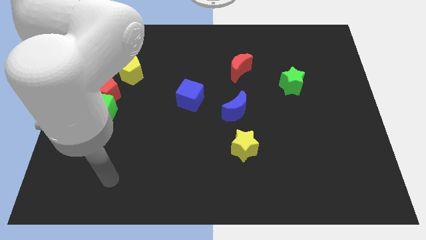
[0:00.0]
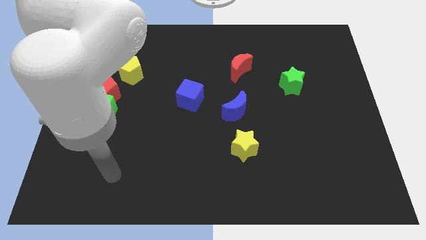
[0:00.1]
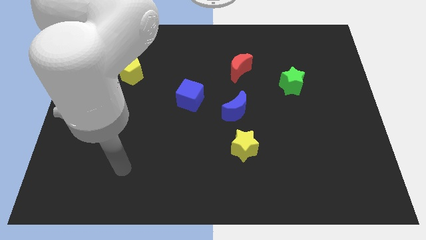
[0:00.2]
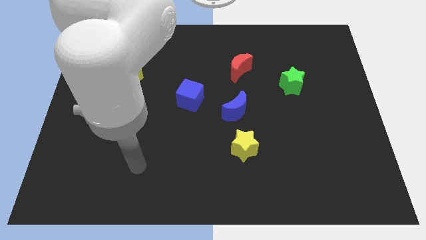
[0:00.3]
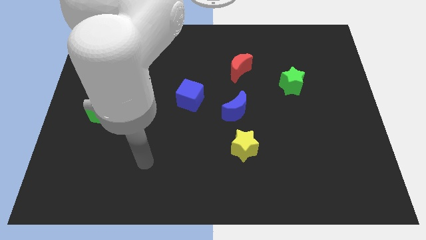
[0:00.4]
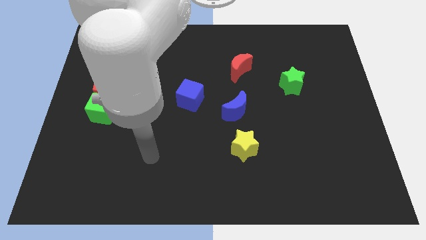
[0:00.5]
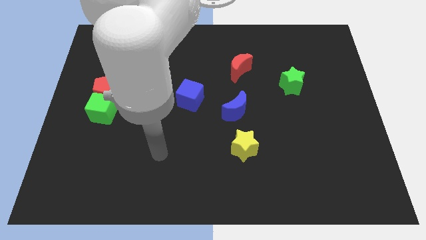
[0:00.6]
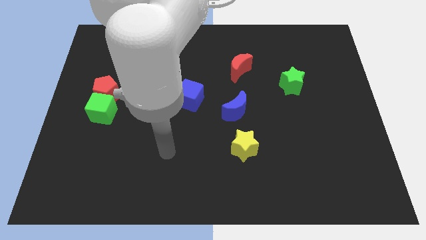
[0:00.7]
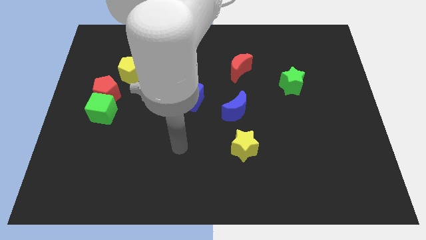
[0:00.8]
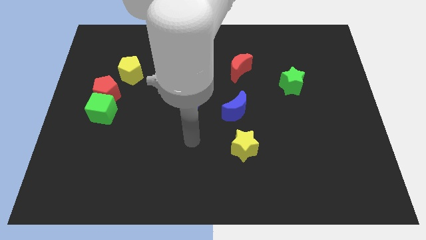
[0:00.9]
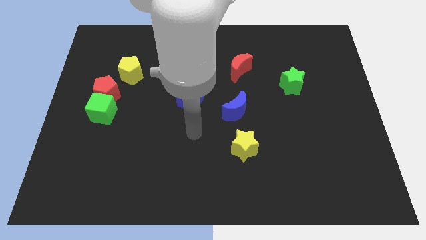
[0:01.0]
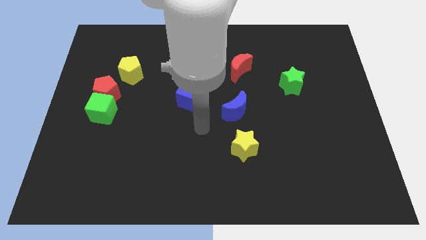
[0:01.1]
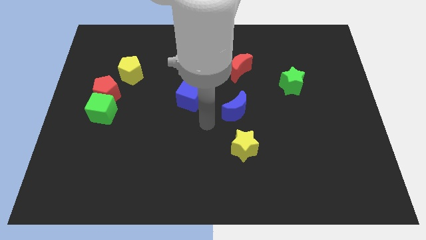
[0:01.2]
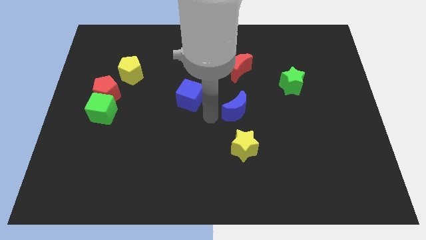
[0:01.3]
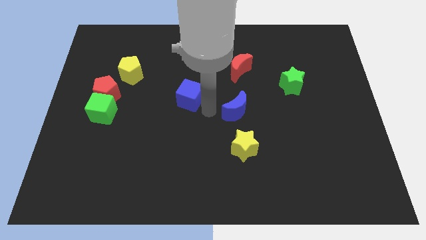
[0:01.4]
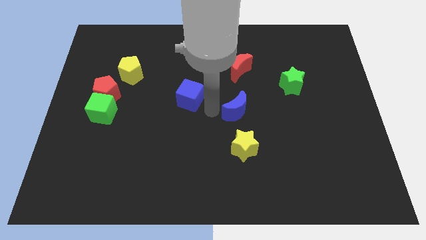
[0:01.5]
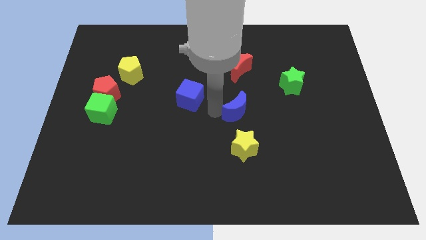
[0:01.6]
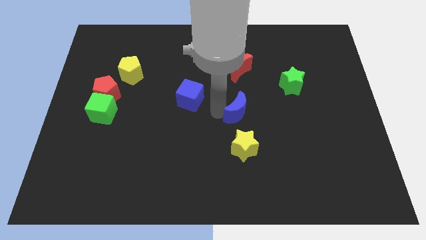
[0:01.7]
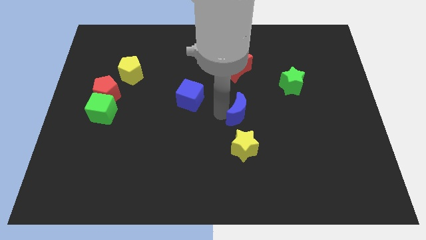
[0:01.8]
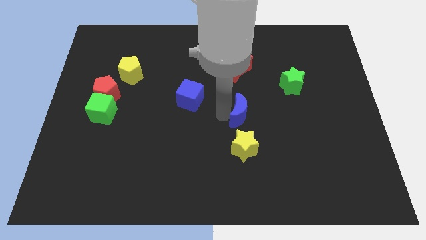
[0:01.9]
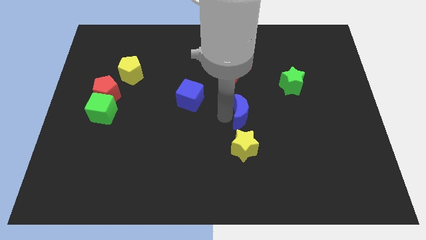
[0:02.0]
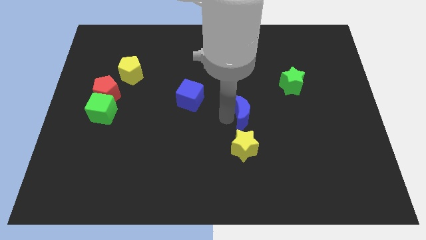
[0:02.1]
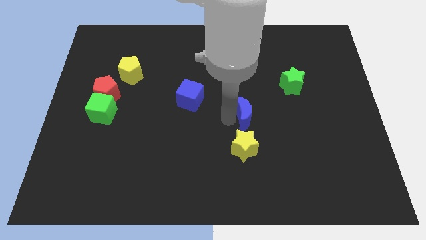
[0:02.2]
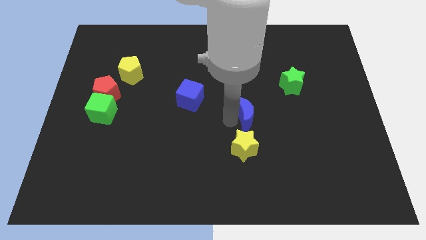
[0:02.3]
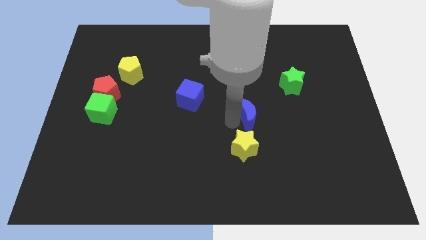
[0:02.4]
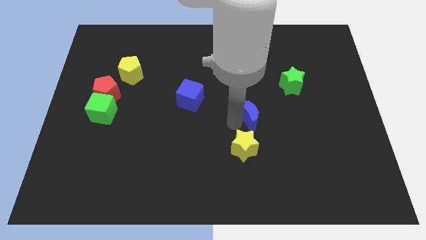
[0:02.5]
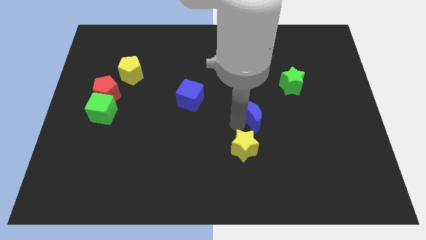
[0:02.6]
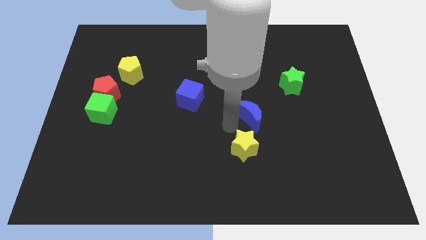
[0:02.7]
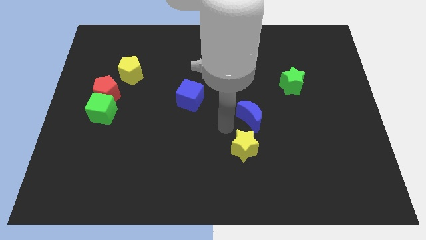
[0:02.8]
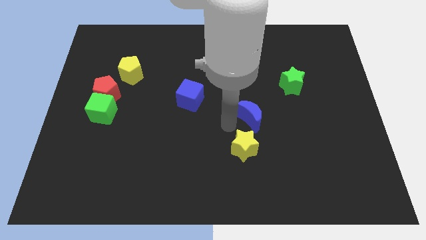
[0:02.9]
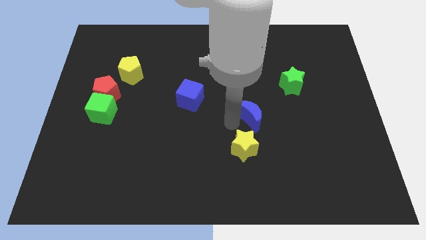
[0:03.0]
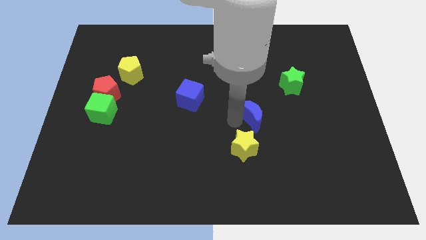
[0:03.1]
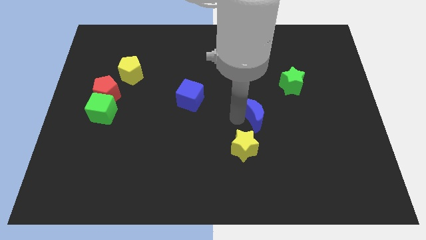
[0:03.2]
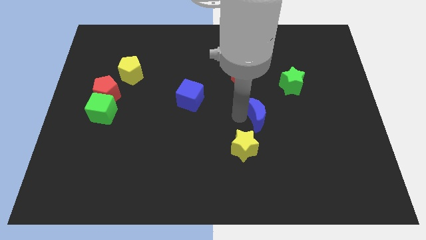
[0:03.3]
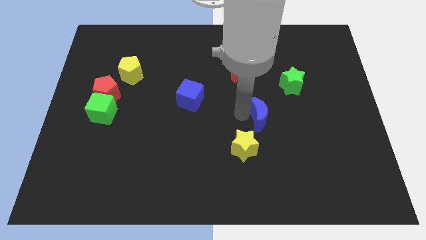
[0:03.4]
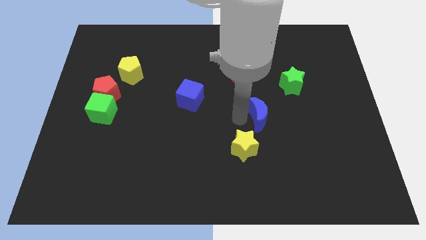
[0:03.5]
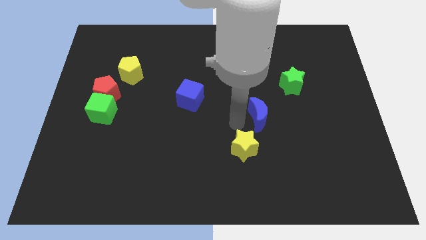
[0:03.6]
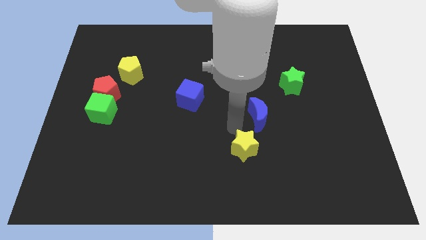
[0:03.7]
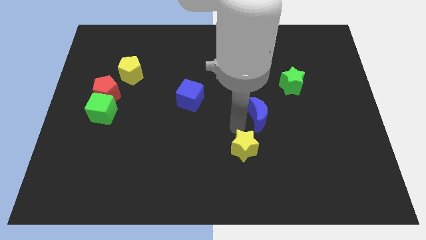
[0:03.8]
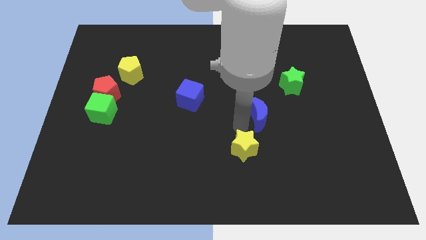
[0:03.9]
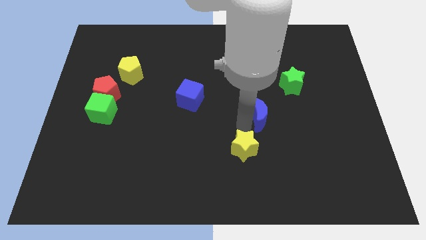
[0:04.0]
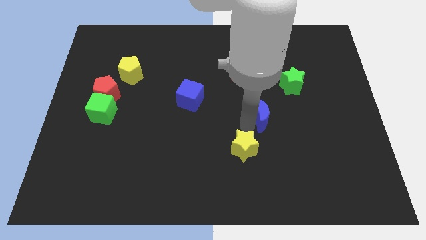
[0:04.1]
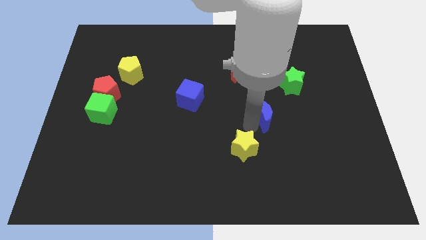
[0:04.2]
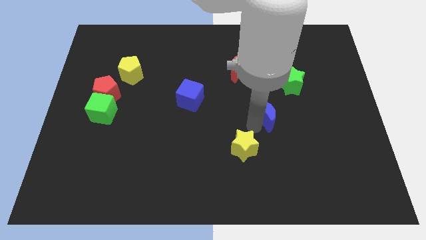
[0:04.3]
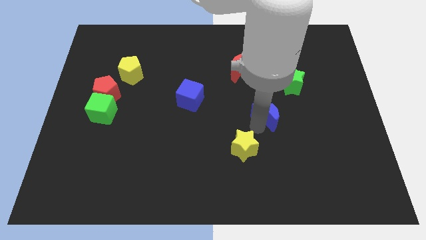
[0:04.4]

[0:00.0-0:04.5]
slide the blue moon a little bit right

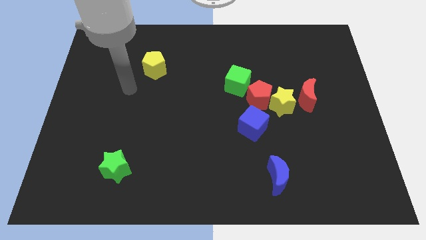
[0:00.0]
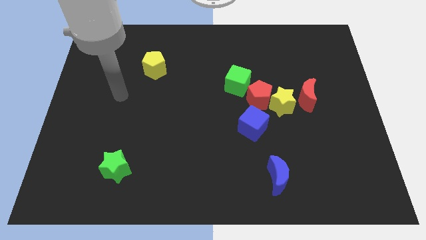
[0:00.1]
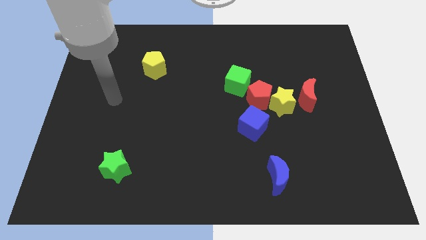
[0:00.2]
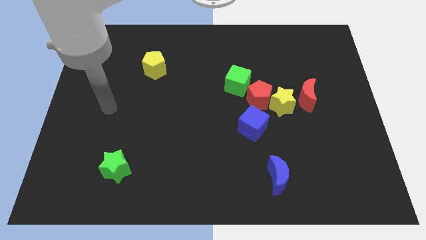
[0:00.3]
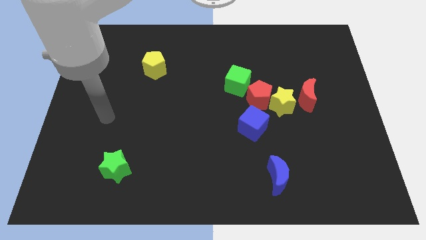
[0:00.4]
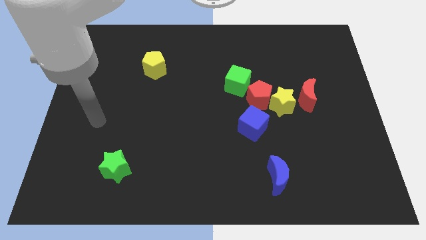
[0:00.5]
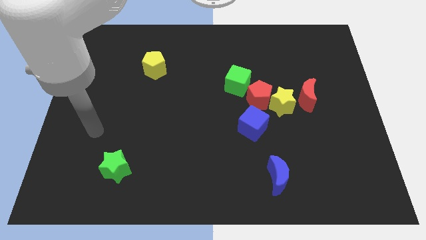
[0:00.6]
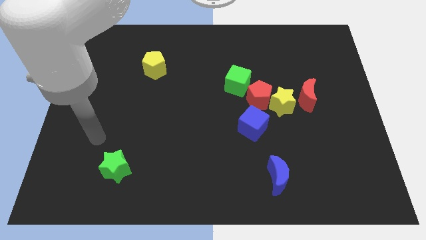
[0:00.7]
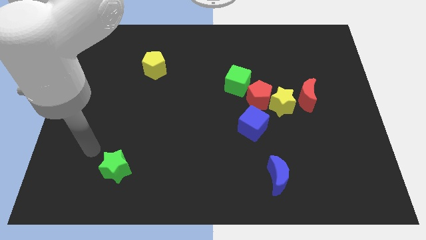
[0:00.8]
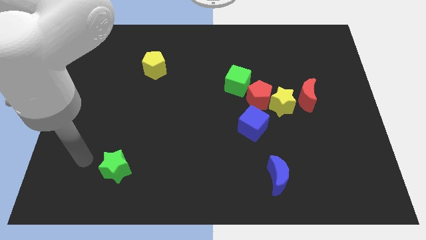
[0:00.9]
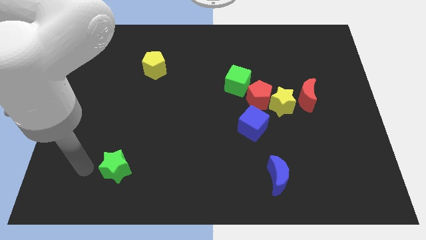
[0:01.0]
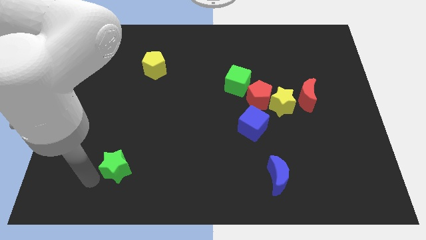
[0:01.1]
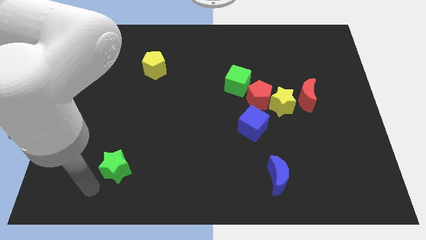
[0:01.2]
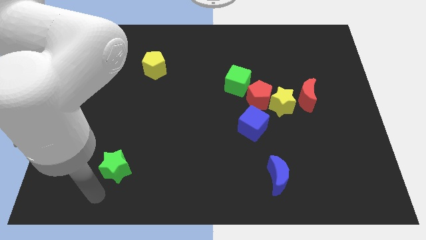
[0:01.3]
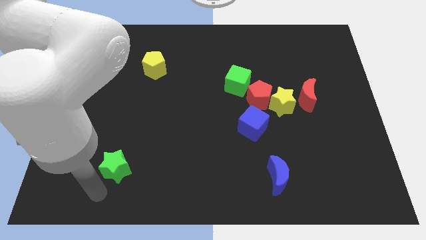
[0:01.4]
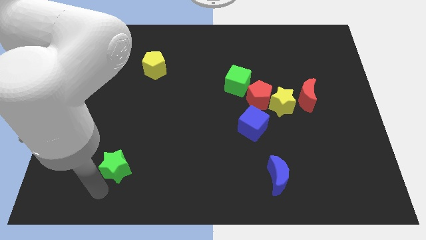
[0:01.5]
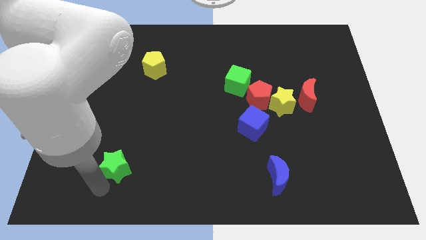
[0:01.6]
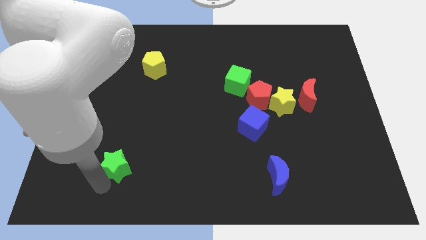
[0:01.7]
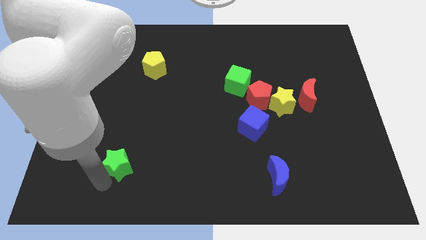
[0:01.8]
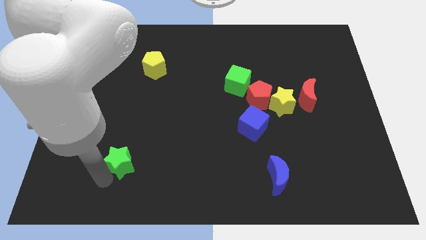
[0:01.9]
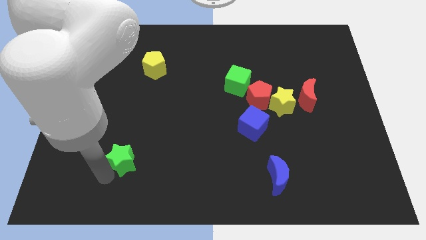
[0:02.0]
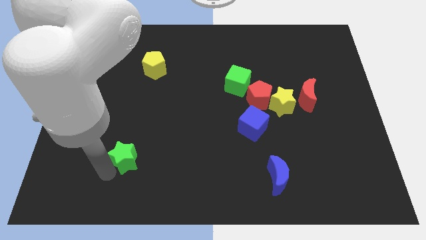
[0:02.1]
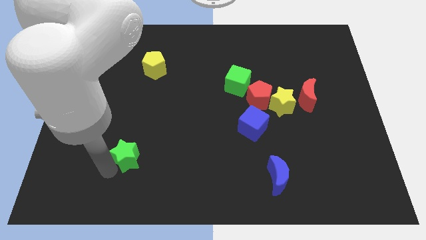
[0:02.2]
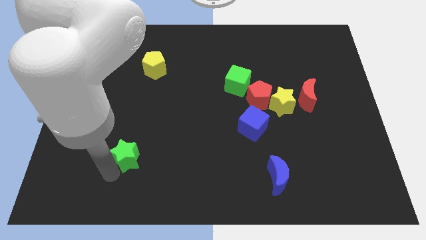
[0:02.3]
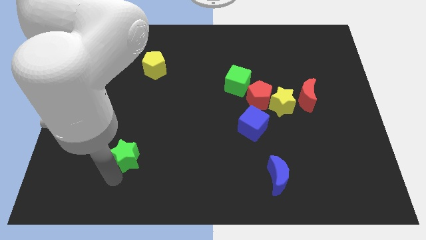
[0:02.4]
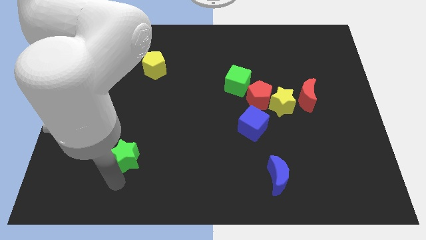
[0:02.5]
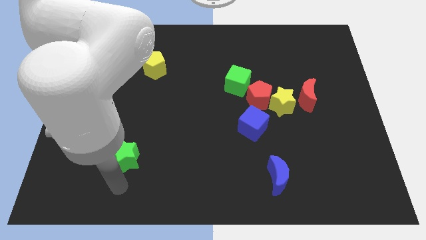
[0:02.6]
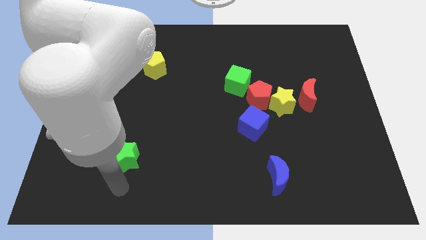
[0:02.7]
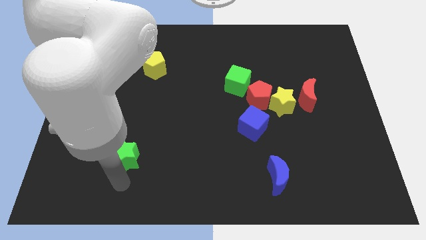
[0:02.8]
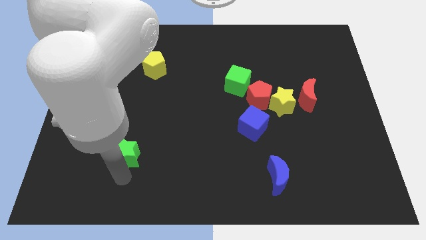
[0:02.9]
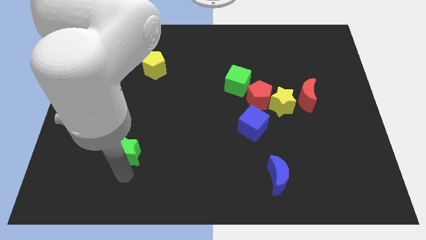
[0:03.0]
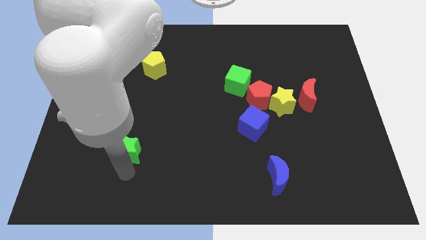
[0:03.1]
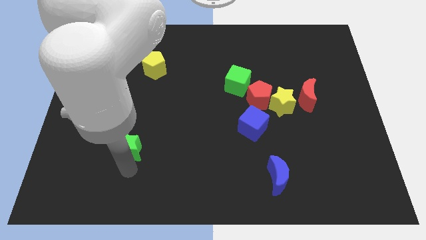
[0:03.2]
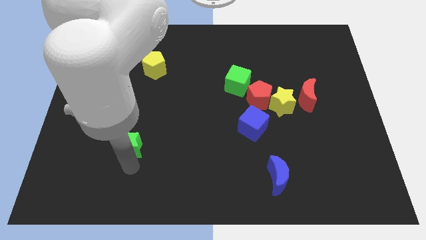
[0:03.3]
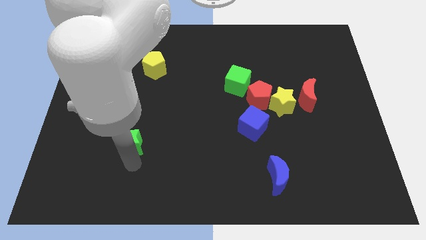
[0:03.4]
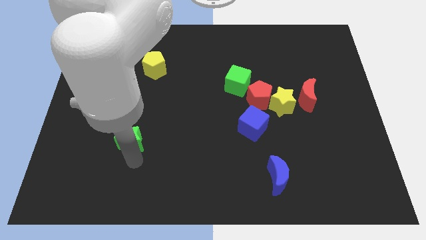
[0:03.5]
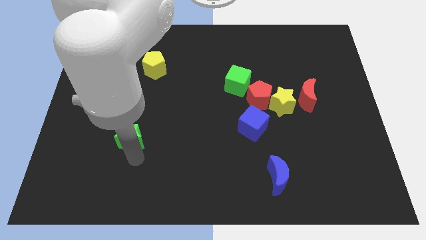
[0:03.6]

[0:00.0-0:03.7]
slide the green star slightly up
